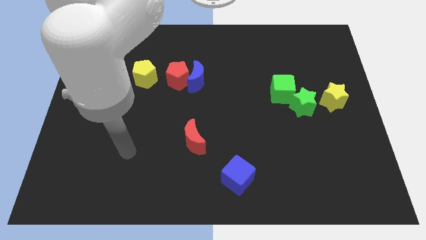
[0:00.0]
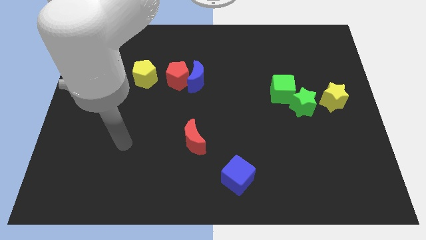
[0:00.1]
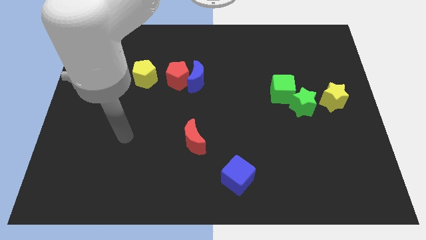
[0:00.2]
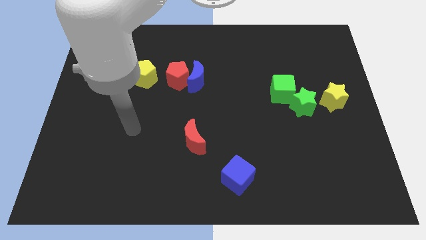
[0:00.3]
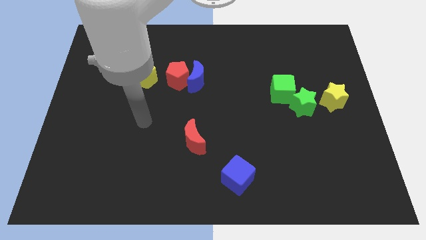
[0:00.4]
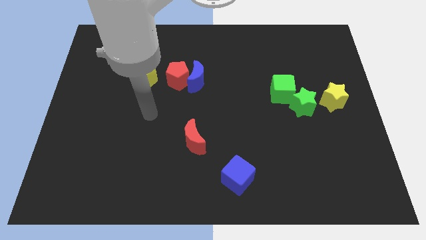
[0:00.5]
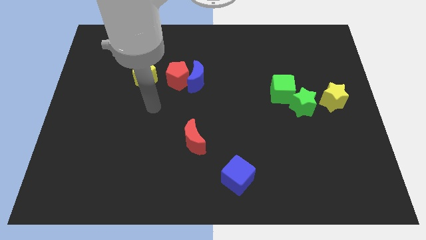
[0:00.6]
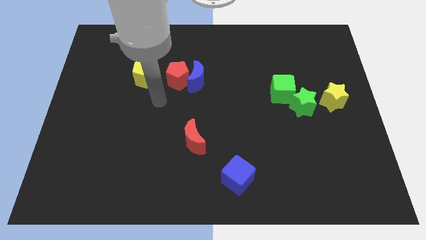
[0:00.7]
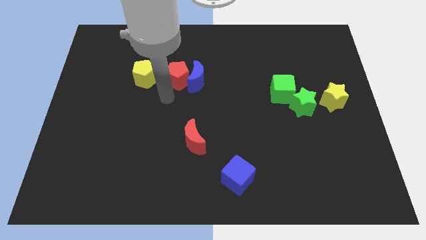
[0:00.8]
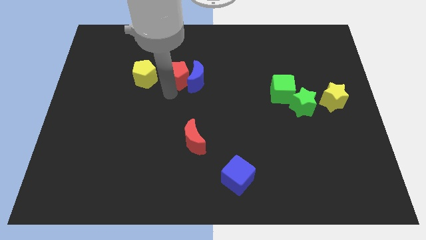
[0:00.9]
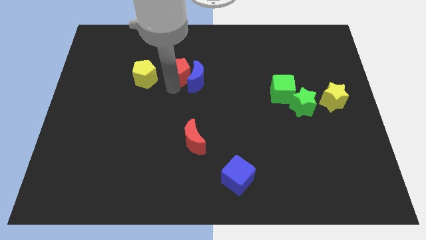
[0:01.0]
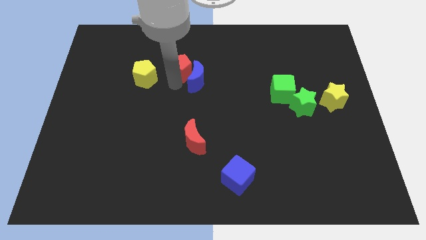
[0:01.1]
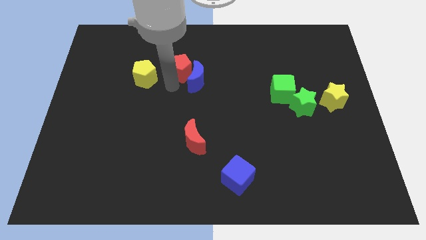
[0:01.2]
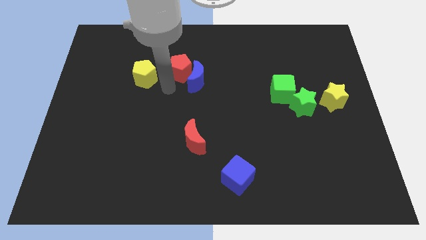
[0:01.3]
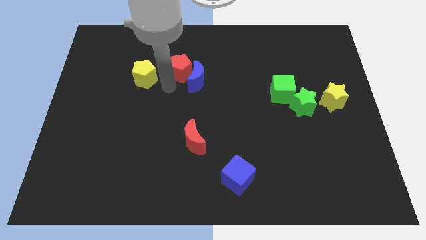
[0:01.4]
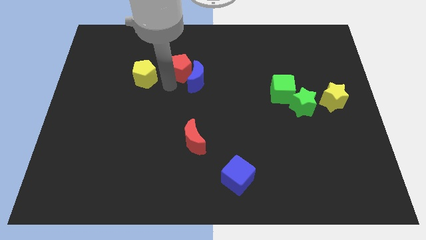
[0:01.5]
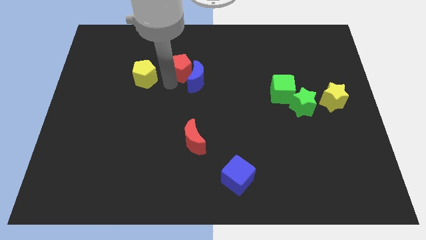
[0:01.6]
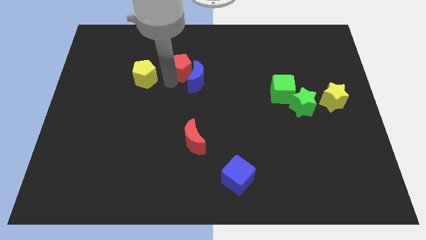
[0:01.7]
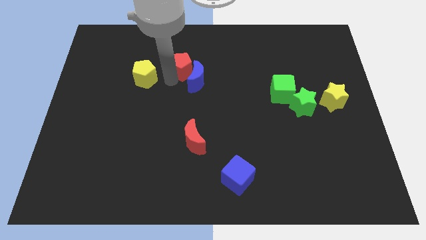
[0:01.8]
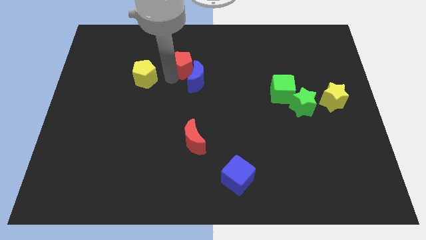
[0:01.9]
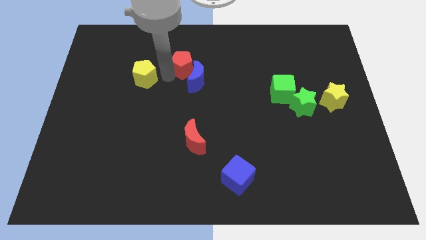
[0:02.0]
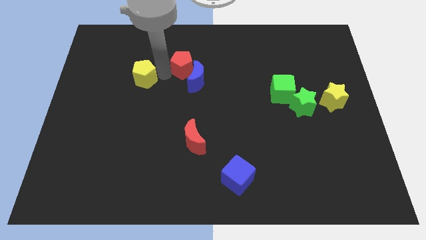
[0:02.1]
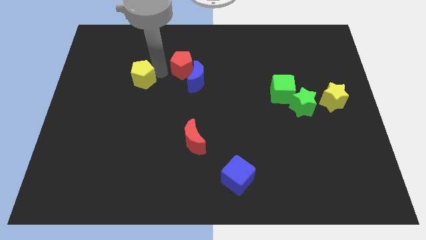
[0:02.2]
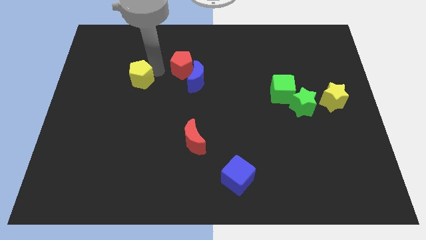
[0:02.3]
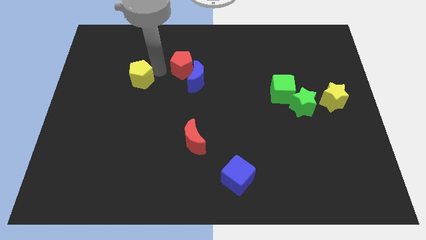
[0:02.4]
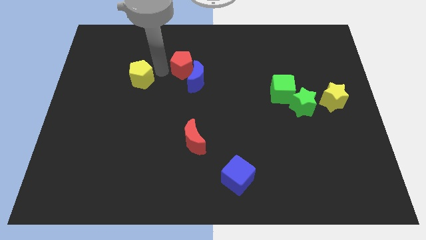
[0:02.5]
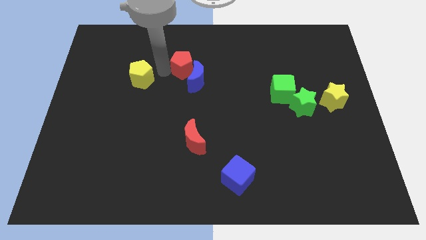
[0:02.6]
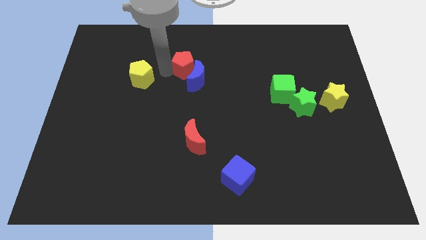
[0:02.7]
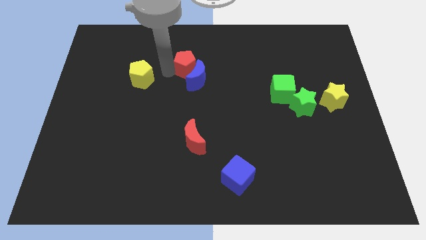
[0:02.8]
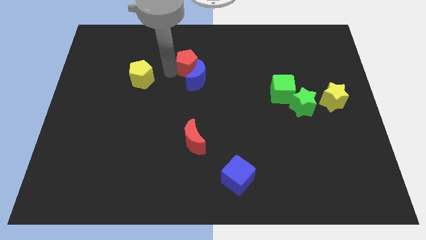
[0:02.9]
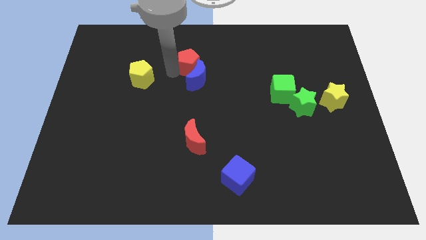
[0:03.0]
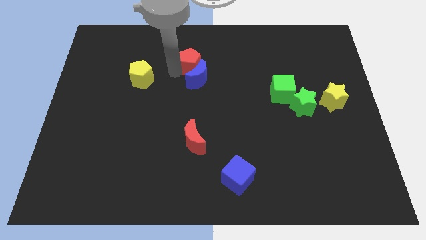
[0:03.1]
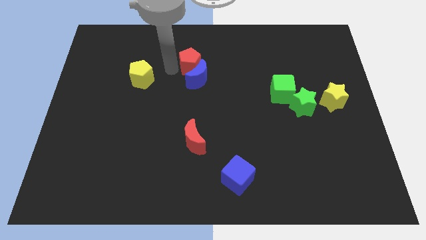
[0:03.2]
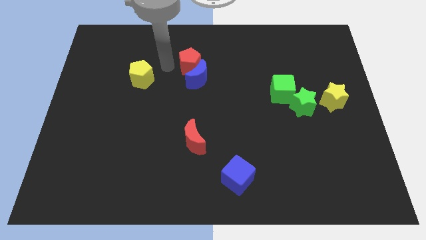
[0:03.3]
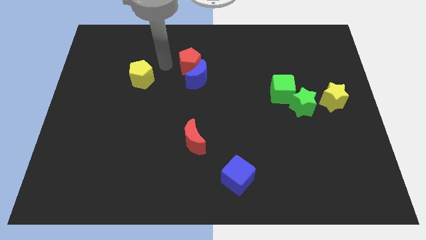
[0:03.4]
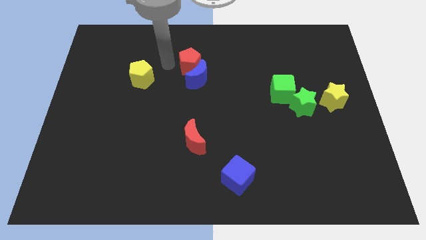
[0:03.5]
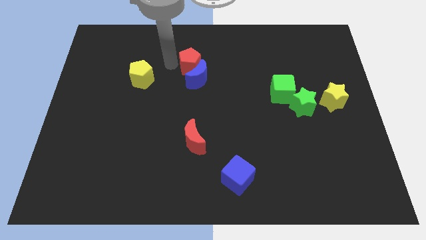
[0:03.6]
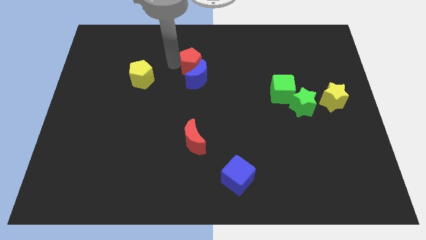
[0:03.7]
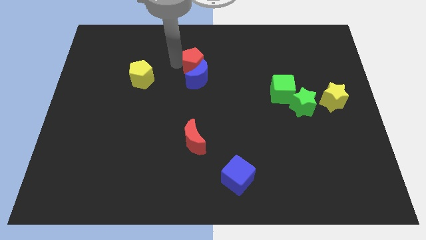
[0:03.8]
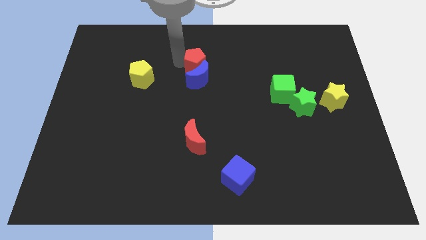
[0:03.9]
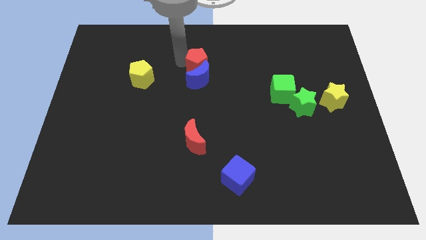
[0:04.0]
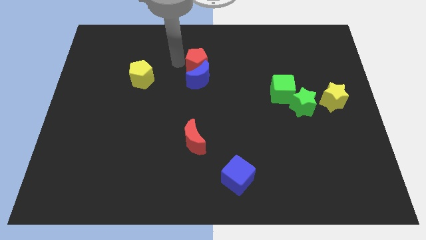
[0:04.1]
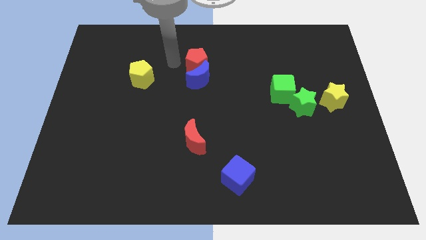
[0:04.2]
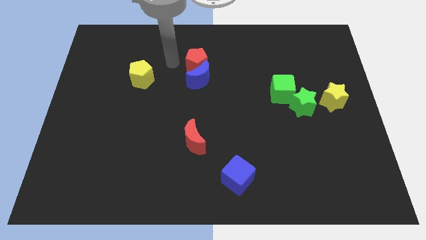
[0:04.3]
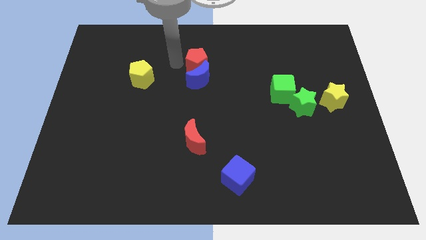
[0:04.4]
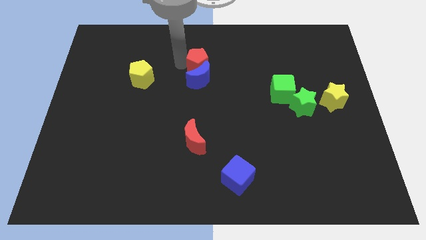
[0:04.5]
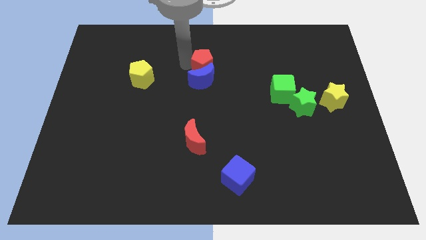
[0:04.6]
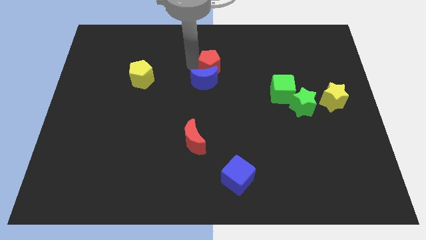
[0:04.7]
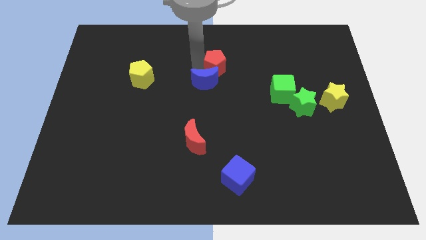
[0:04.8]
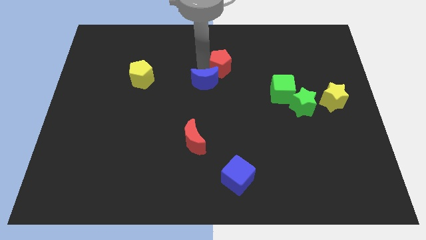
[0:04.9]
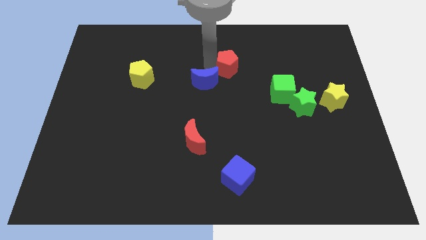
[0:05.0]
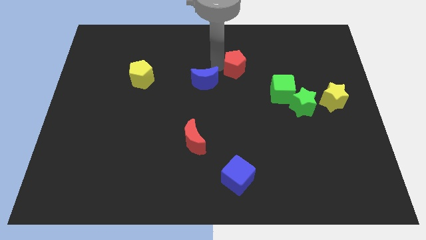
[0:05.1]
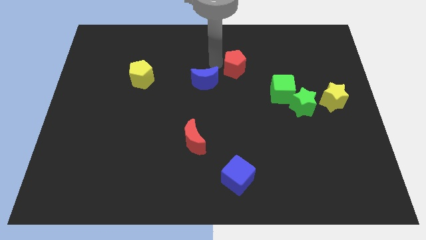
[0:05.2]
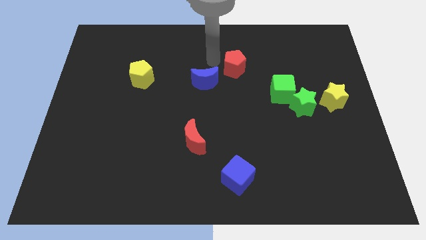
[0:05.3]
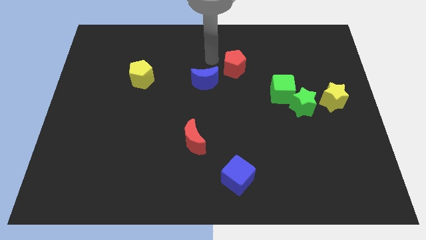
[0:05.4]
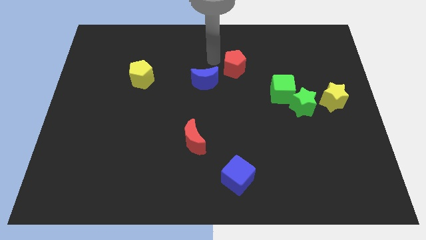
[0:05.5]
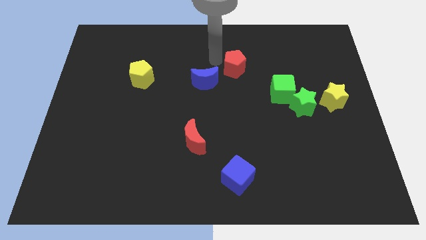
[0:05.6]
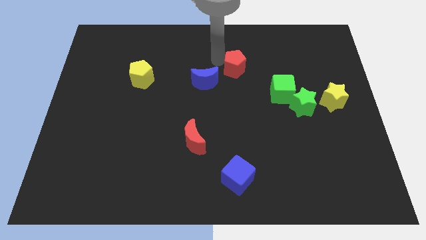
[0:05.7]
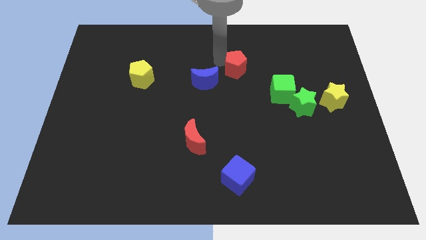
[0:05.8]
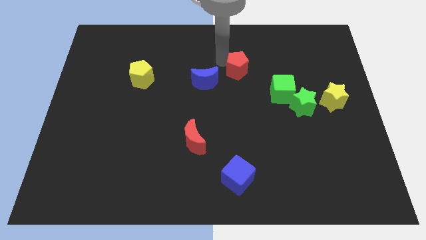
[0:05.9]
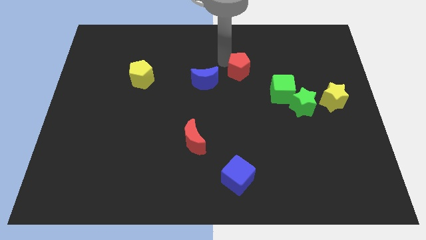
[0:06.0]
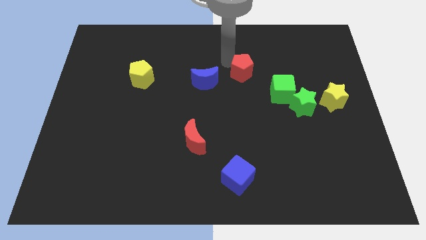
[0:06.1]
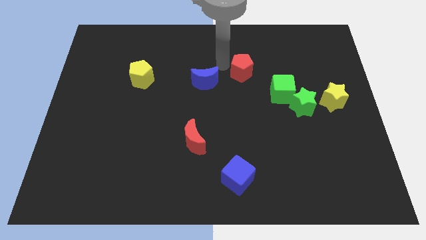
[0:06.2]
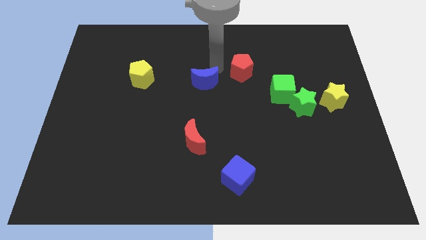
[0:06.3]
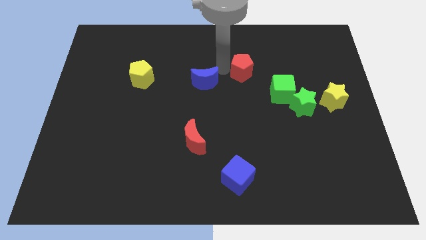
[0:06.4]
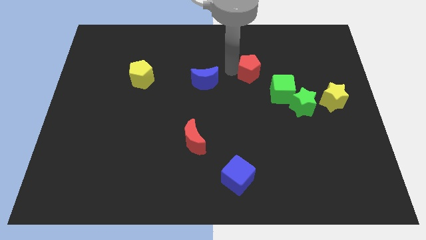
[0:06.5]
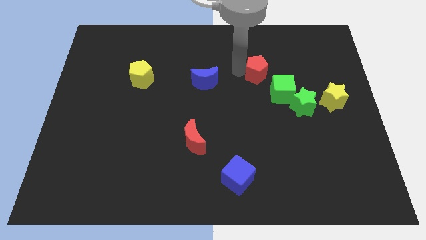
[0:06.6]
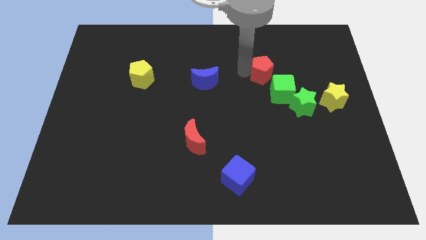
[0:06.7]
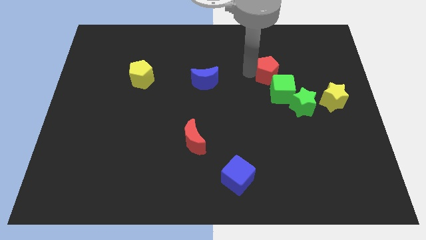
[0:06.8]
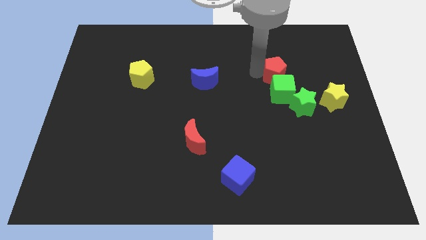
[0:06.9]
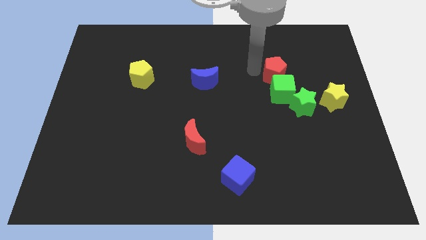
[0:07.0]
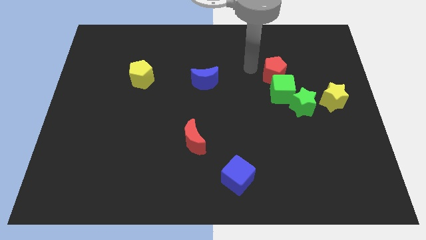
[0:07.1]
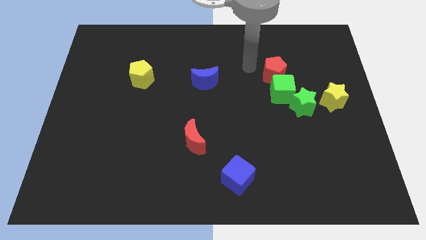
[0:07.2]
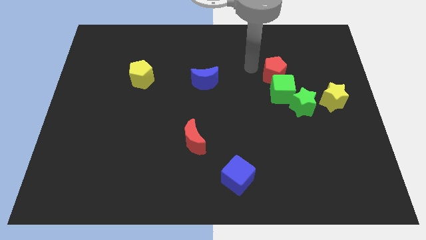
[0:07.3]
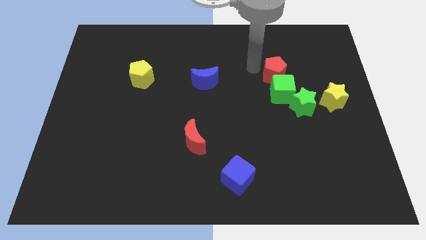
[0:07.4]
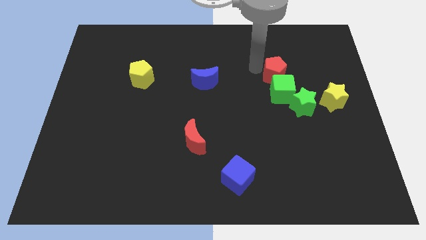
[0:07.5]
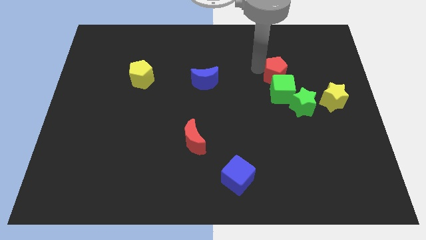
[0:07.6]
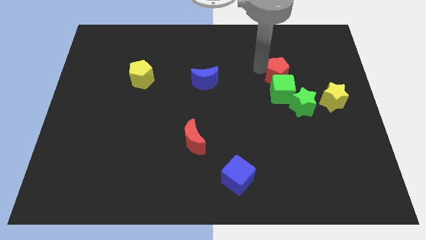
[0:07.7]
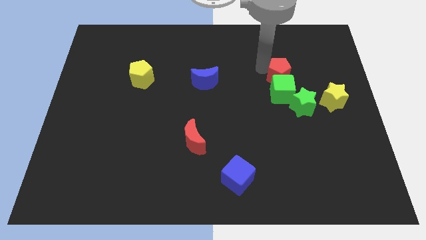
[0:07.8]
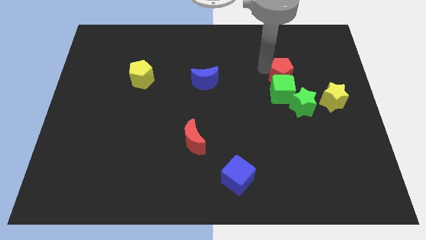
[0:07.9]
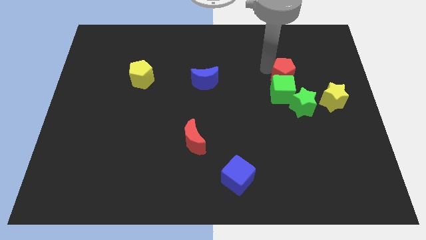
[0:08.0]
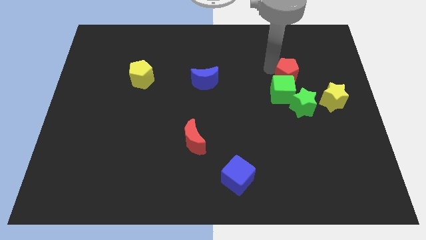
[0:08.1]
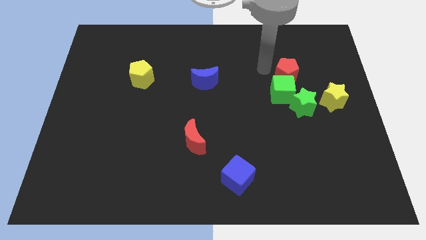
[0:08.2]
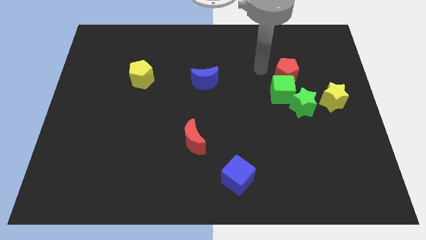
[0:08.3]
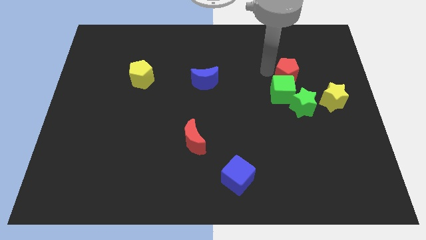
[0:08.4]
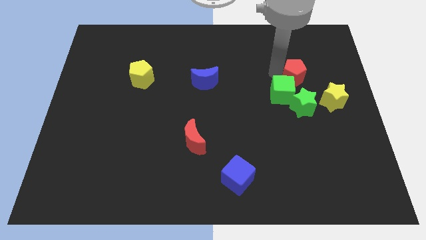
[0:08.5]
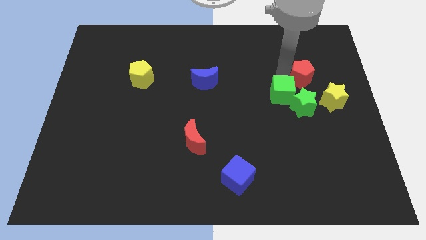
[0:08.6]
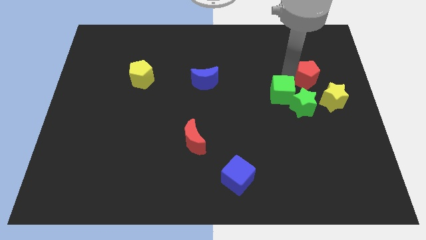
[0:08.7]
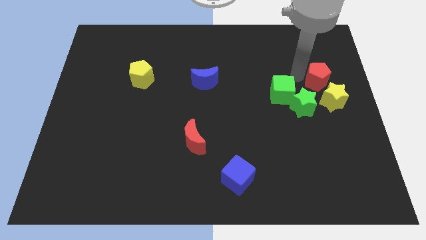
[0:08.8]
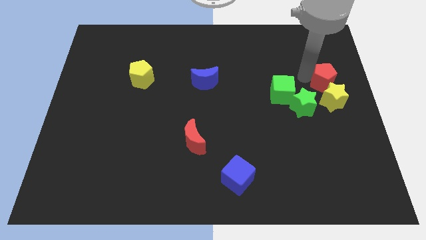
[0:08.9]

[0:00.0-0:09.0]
push the red pentagon to the center right
